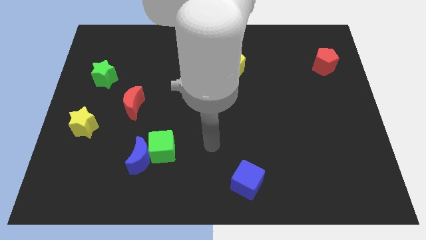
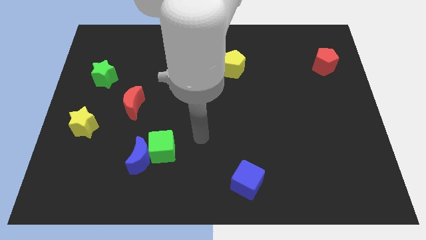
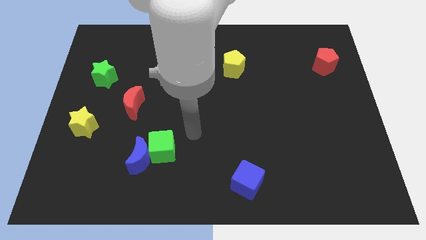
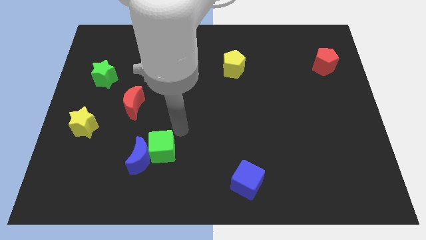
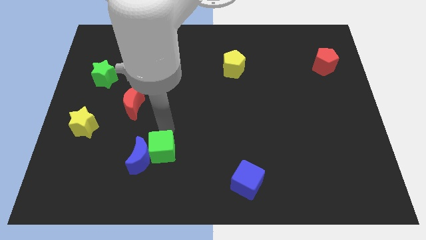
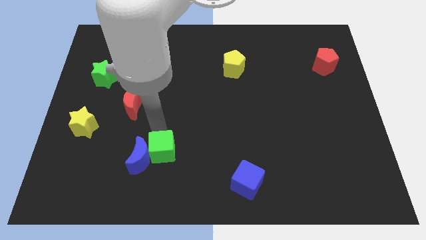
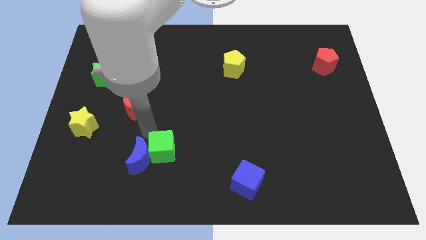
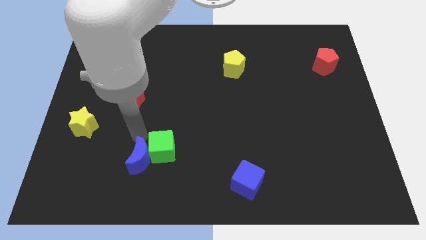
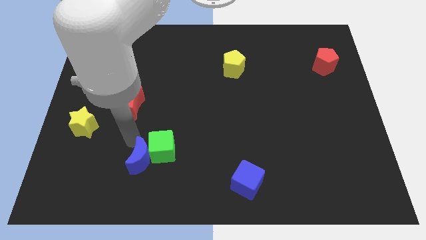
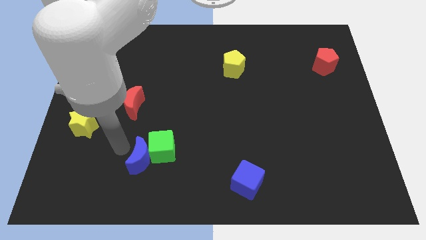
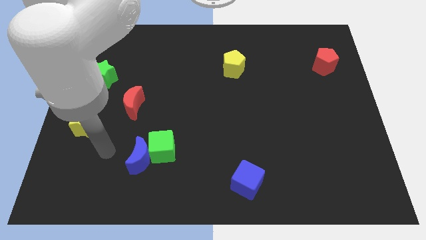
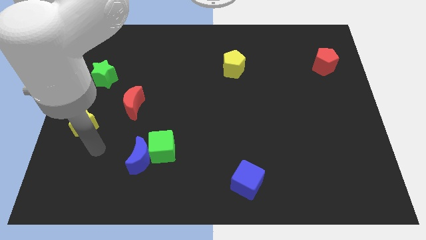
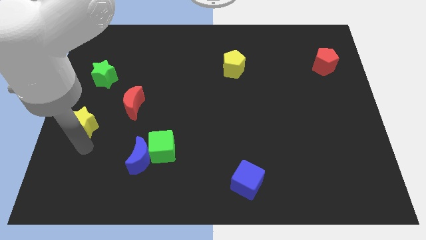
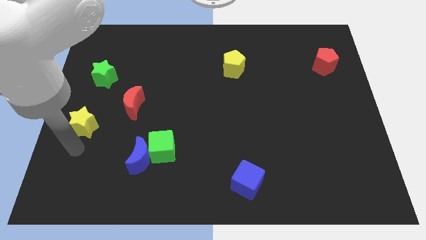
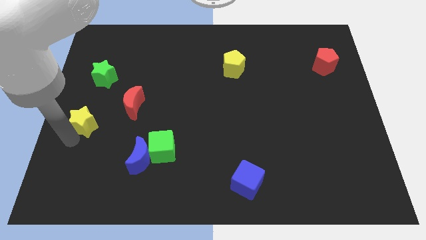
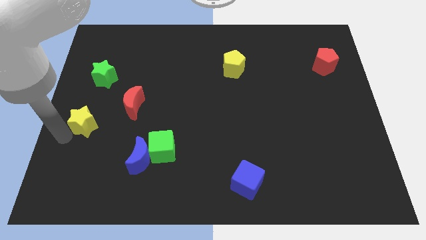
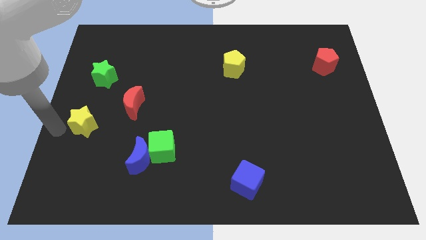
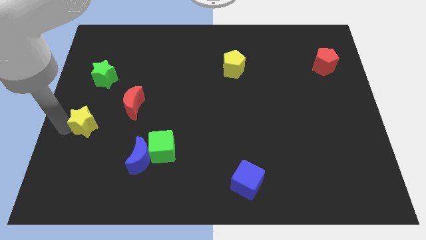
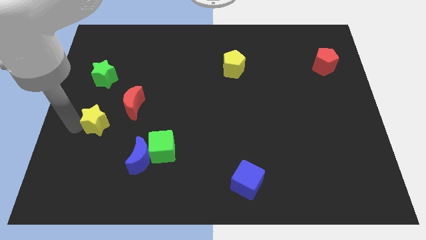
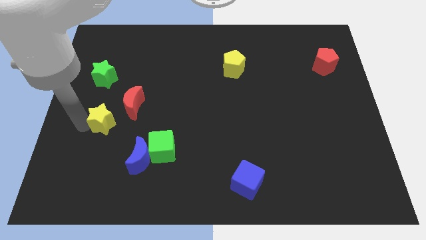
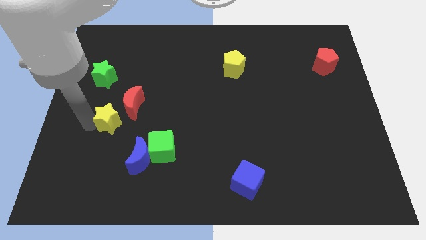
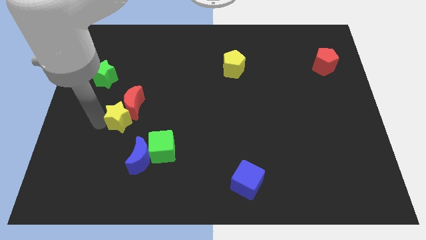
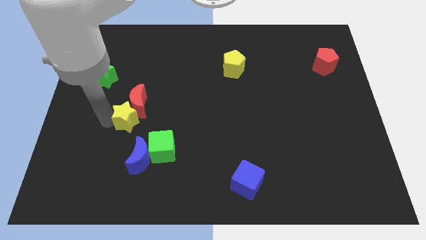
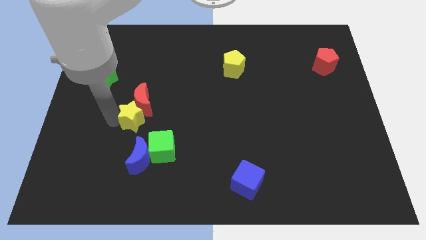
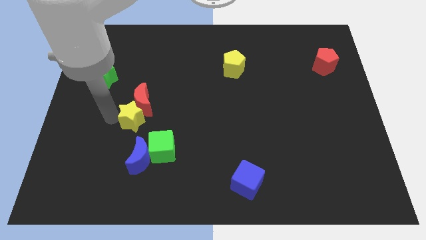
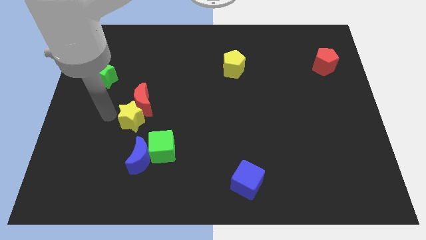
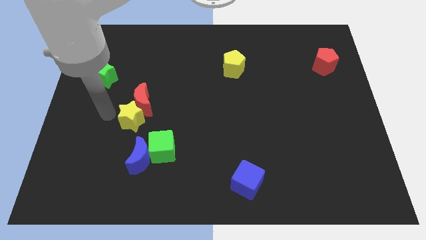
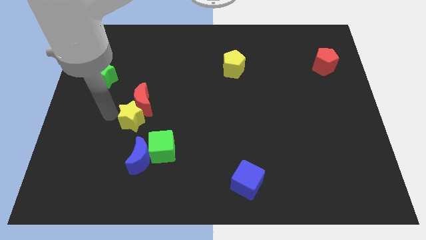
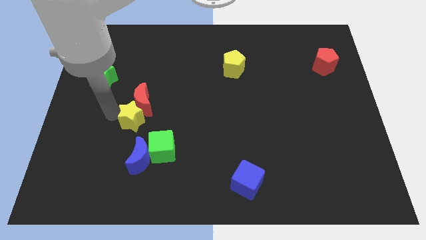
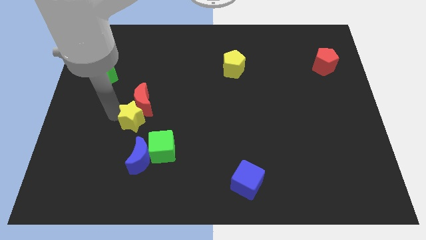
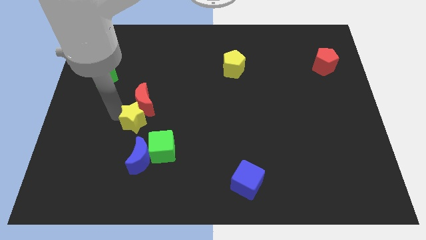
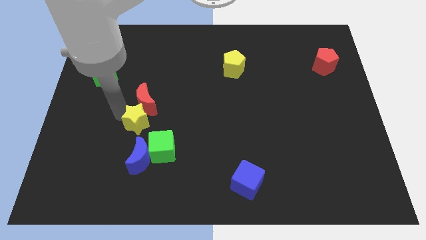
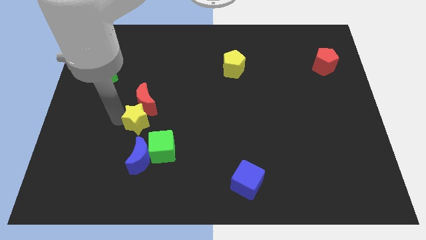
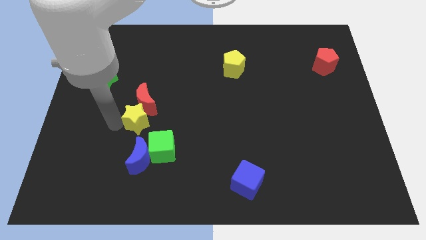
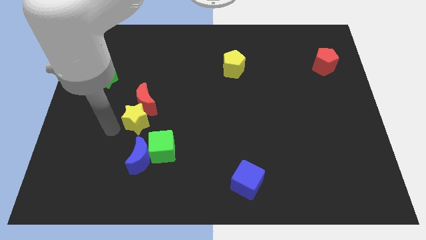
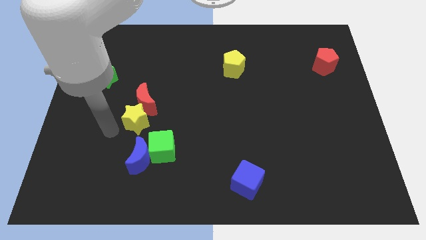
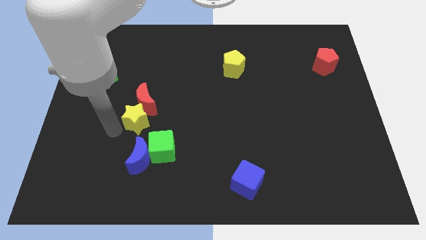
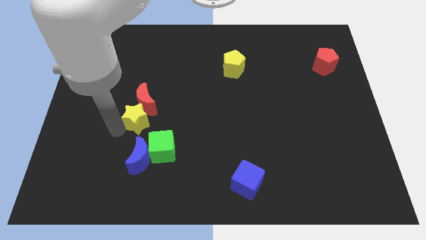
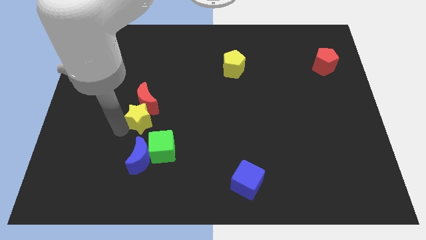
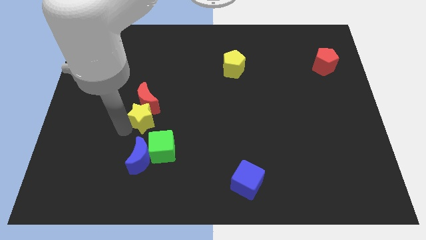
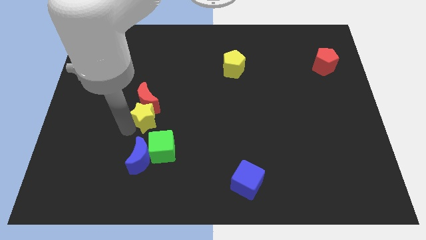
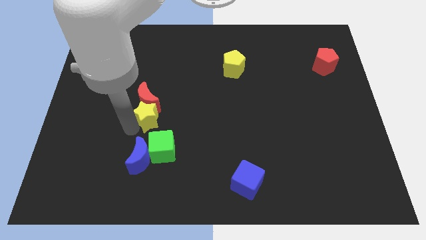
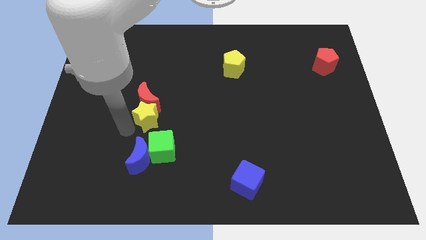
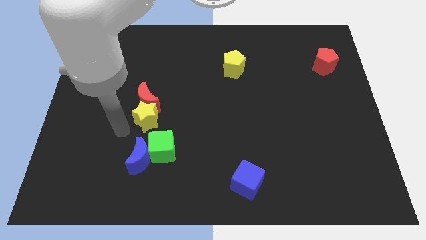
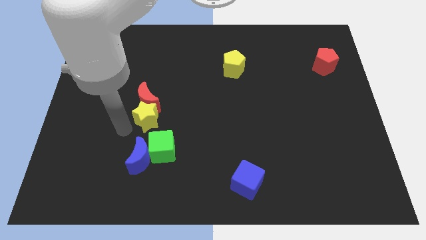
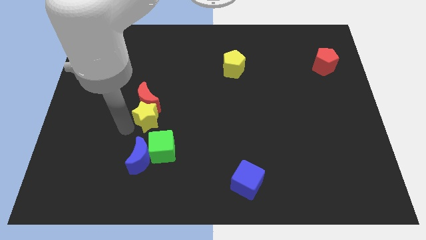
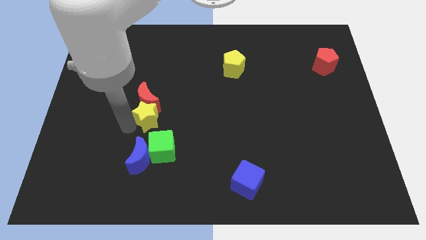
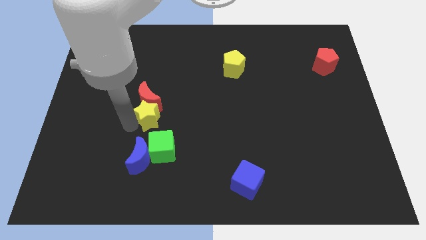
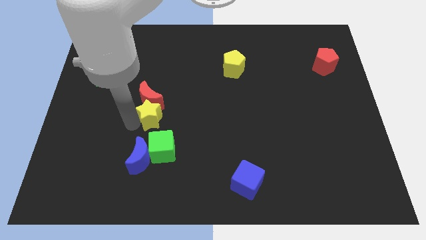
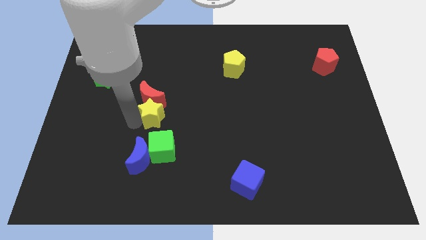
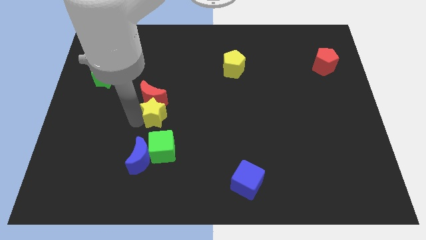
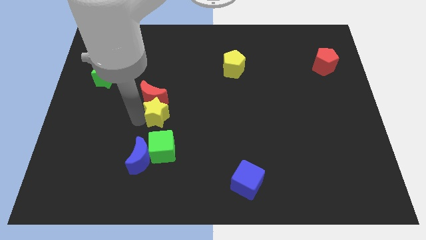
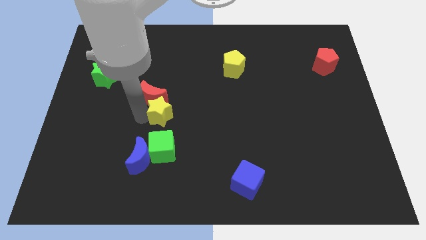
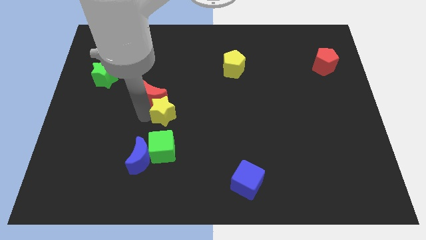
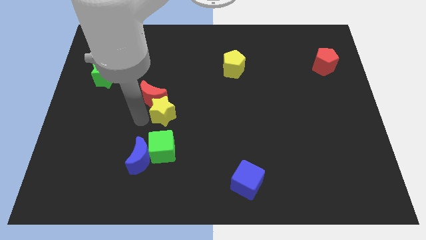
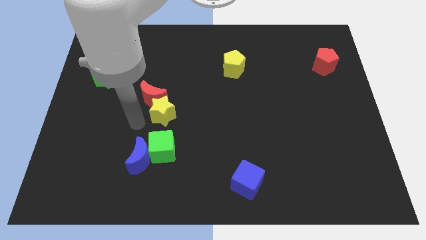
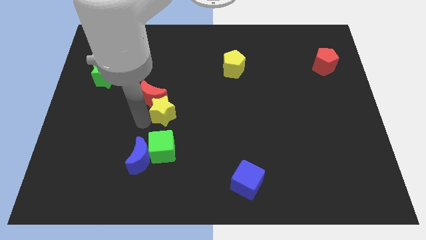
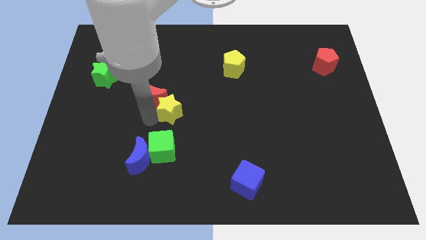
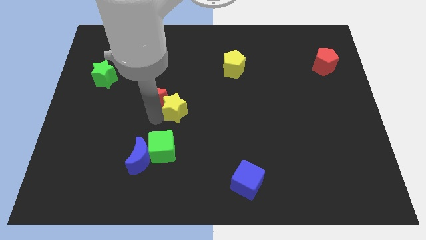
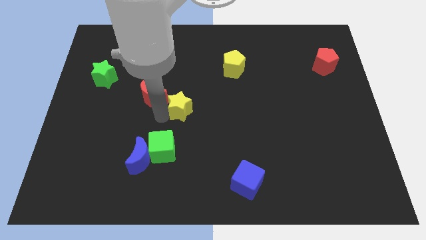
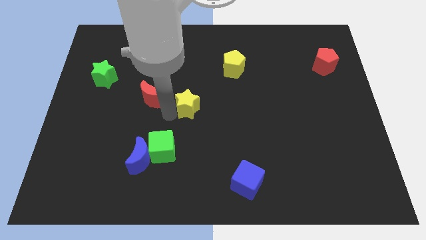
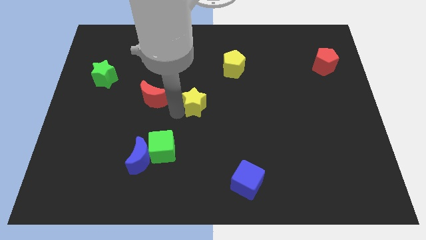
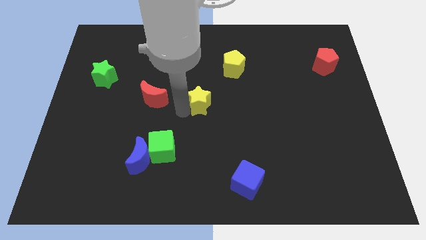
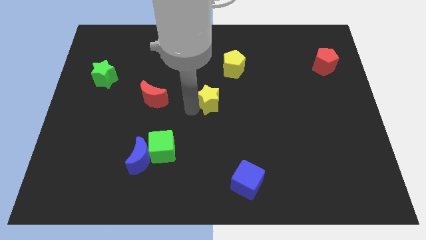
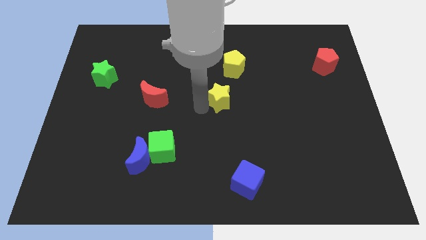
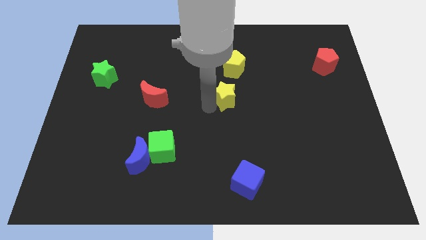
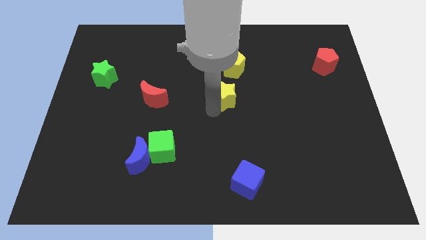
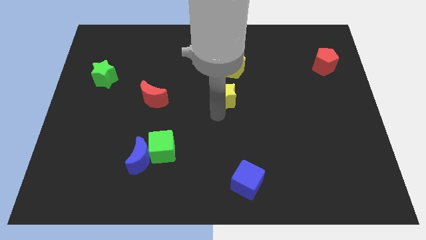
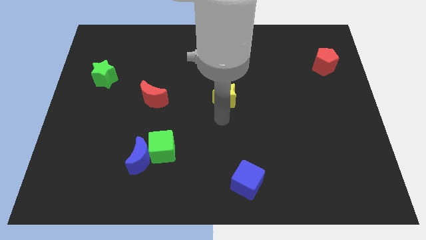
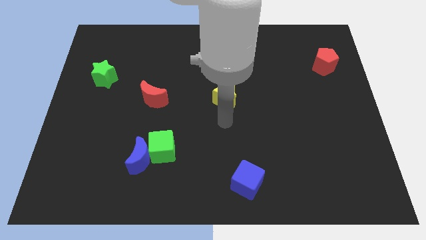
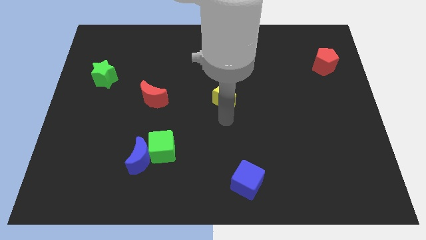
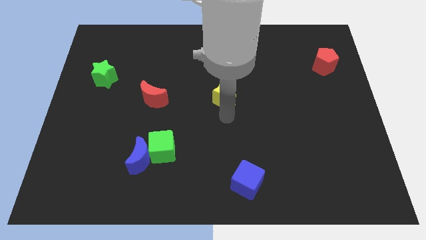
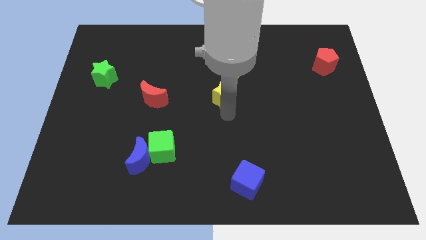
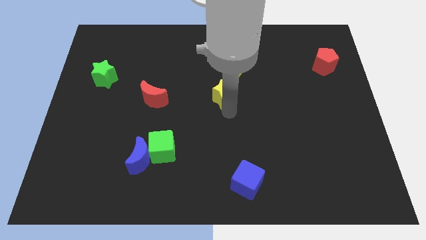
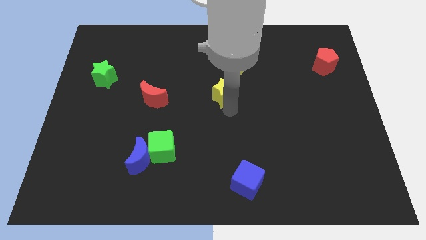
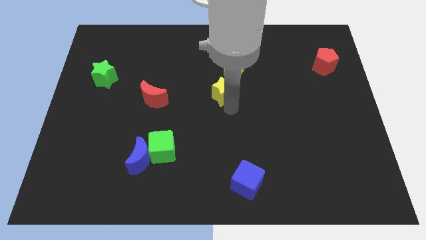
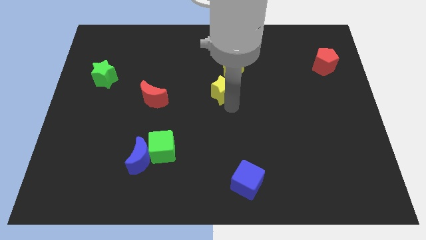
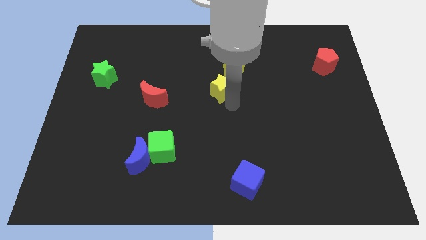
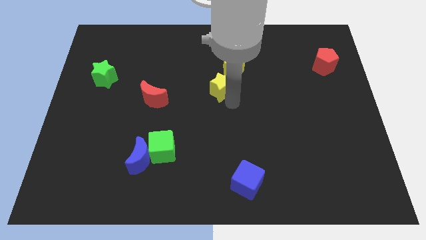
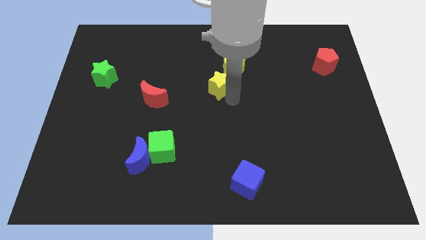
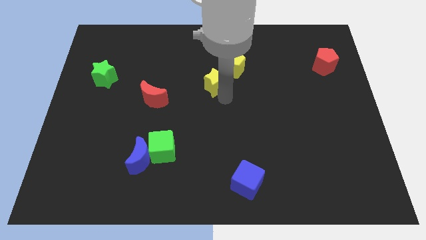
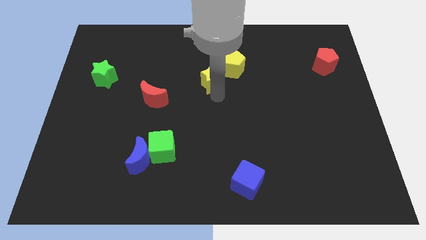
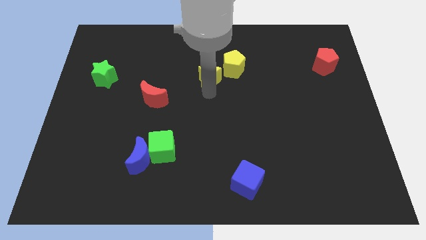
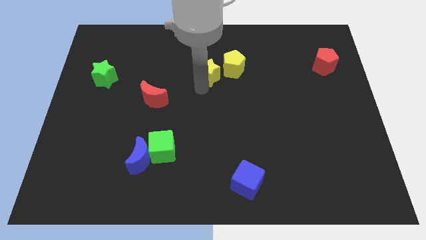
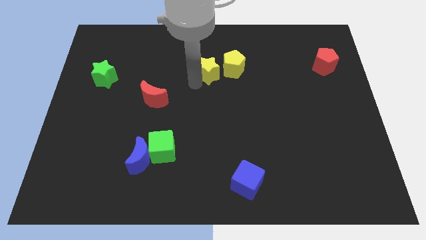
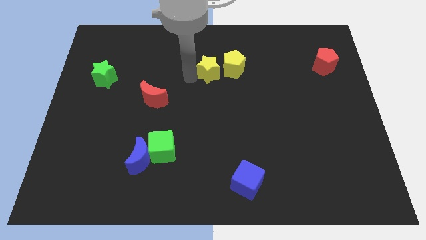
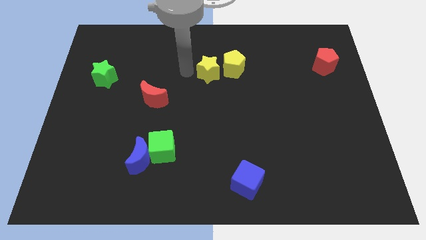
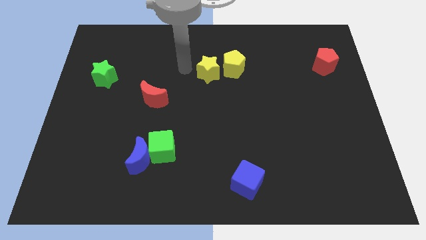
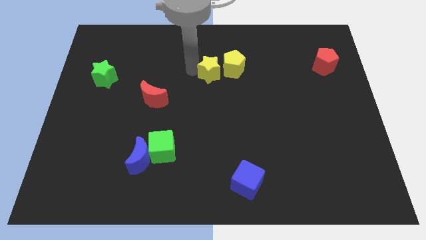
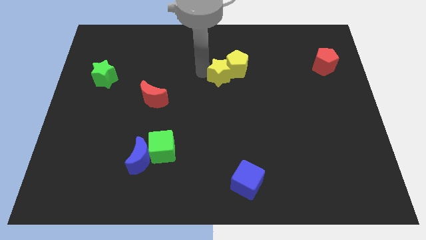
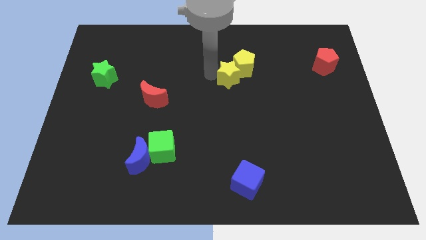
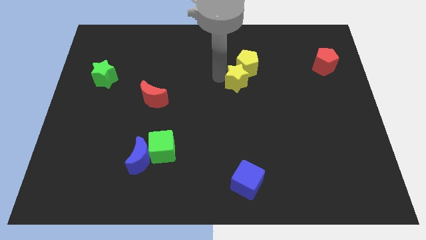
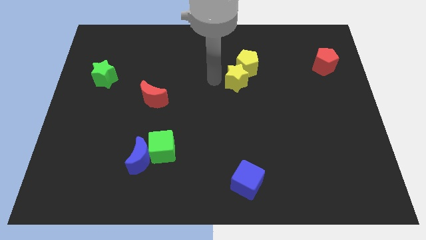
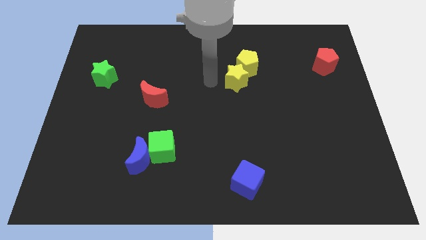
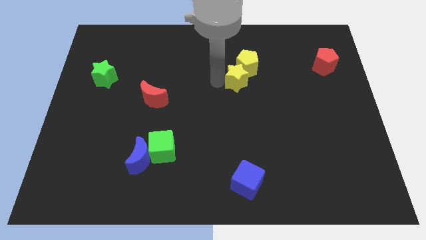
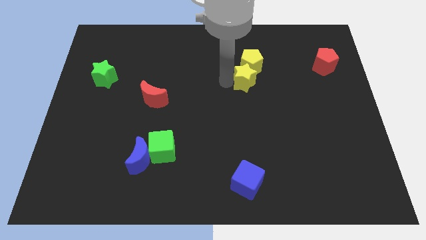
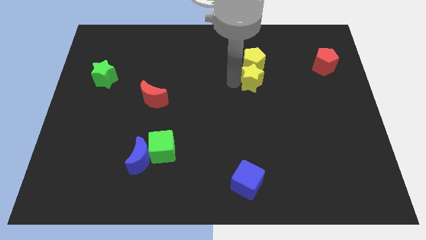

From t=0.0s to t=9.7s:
move the yellow star to the bottom right side of the yellow pentagon
